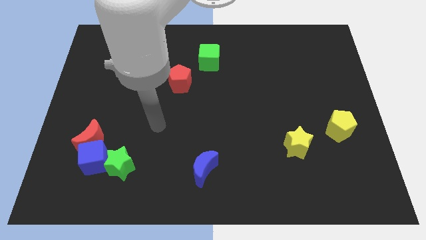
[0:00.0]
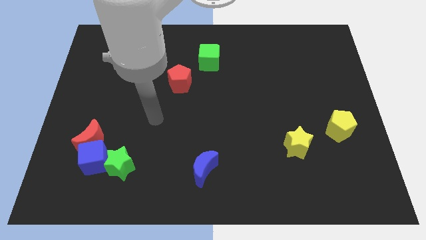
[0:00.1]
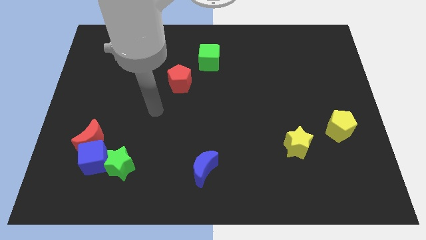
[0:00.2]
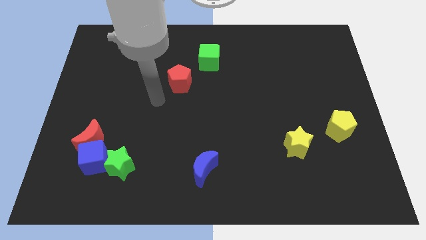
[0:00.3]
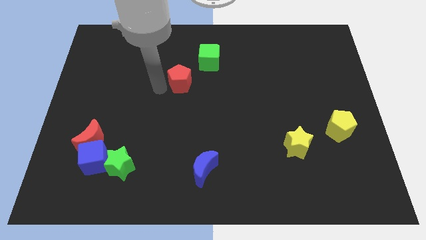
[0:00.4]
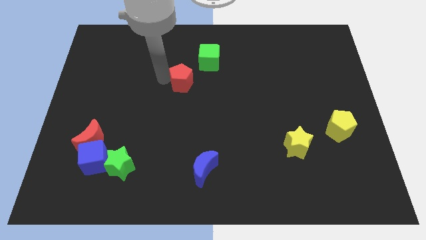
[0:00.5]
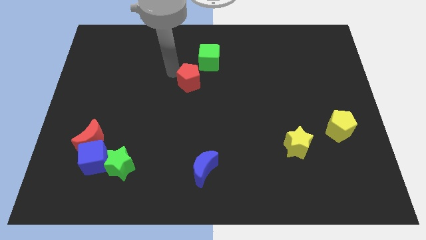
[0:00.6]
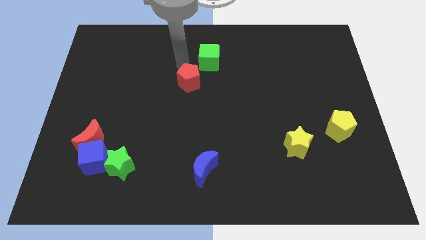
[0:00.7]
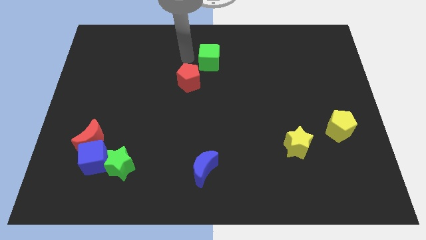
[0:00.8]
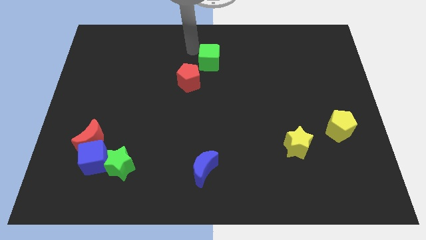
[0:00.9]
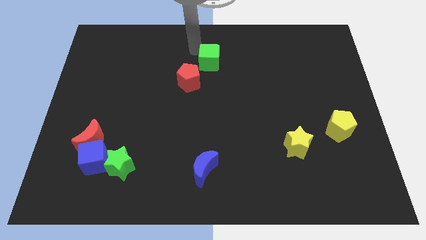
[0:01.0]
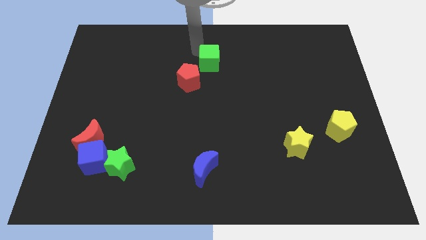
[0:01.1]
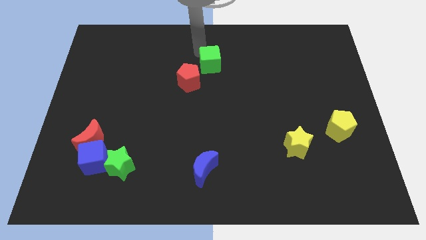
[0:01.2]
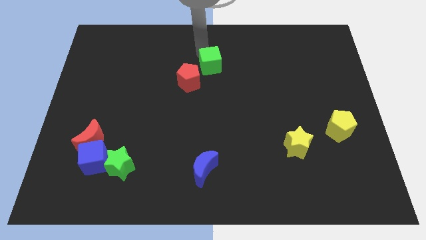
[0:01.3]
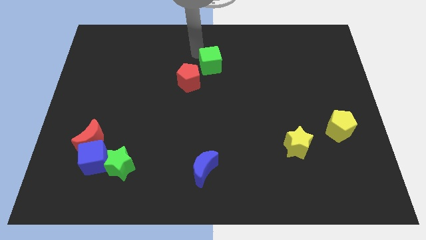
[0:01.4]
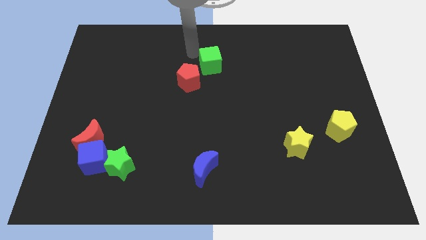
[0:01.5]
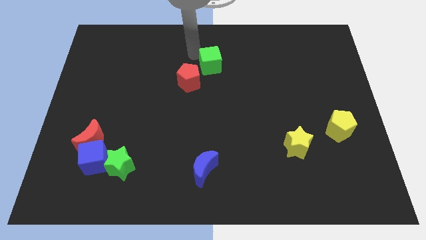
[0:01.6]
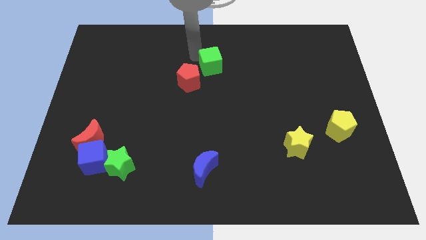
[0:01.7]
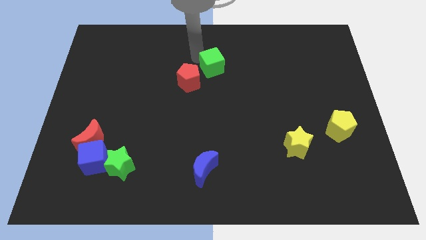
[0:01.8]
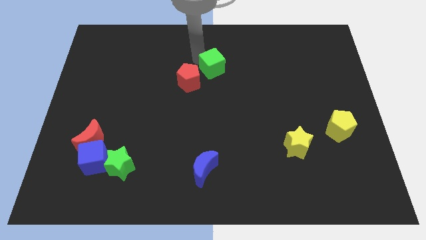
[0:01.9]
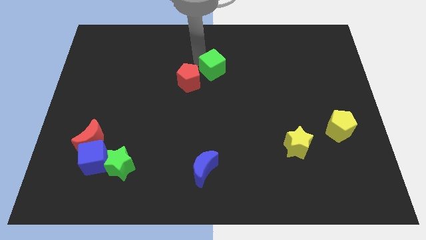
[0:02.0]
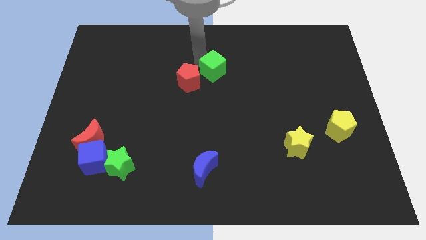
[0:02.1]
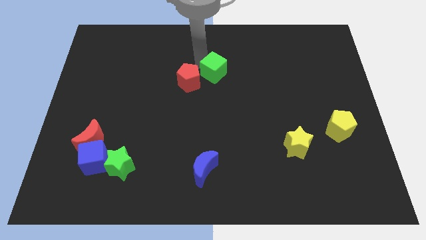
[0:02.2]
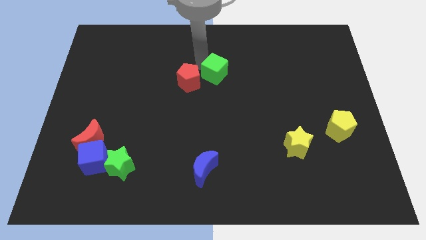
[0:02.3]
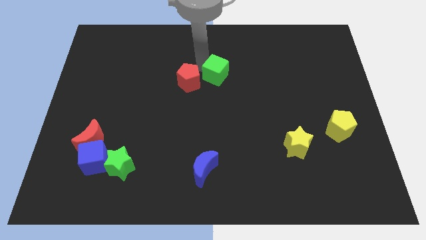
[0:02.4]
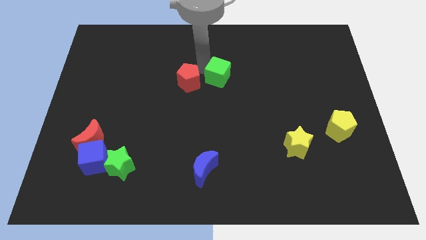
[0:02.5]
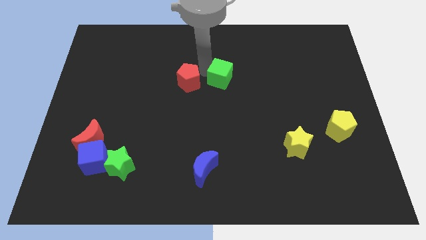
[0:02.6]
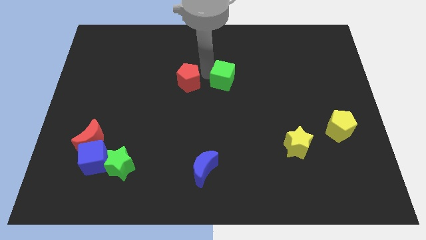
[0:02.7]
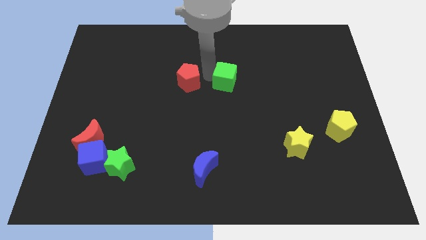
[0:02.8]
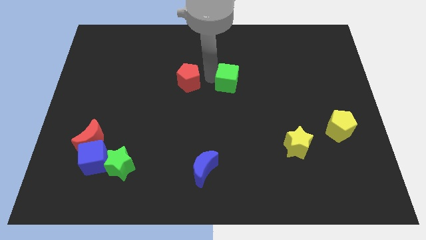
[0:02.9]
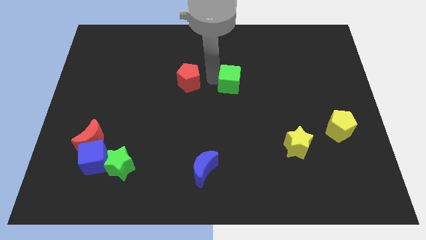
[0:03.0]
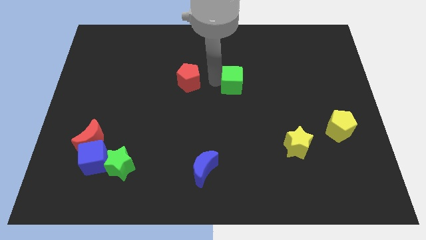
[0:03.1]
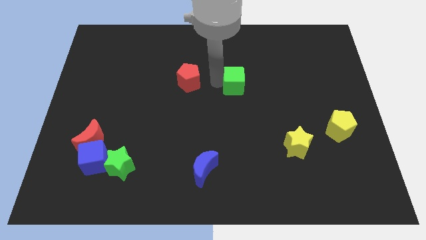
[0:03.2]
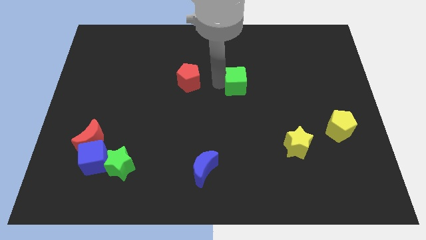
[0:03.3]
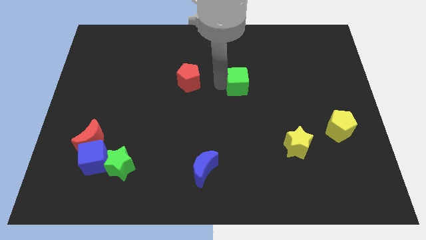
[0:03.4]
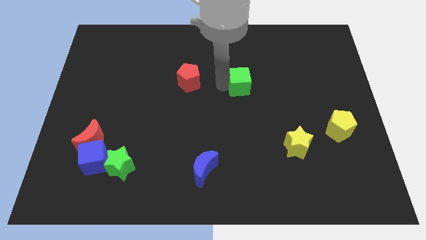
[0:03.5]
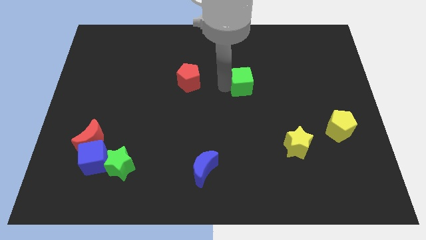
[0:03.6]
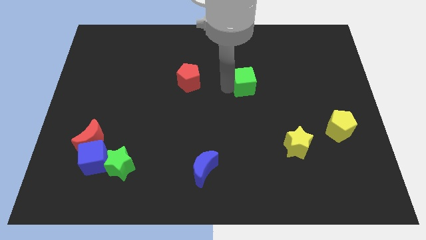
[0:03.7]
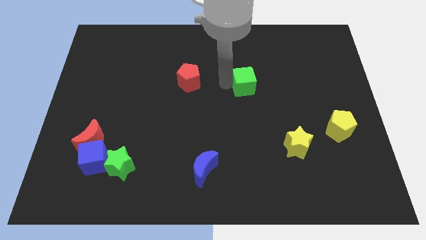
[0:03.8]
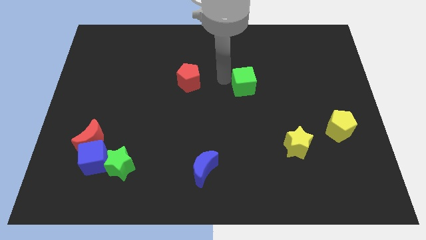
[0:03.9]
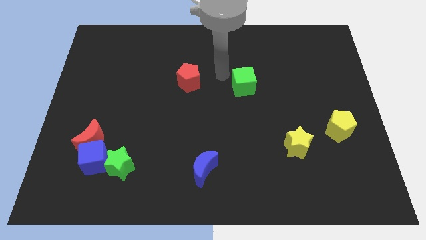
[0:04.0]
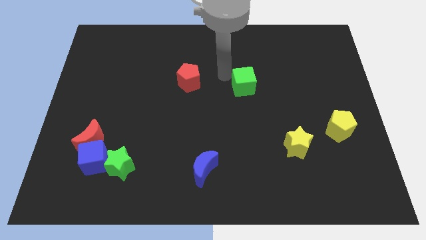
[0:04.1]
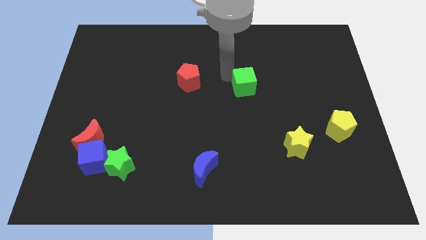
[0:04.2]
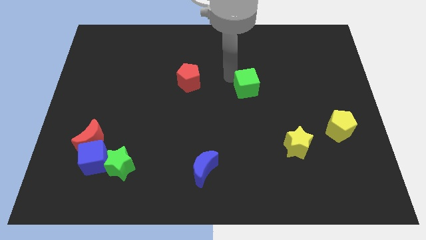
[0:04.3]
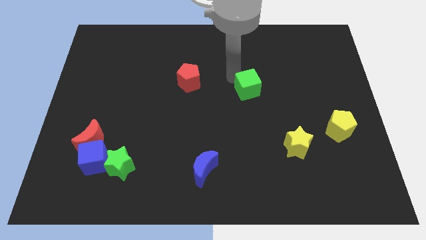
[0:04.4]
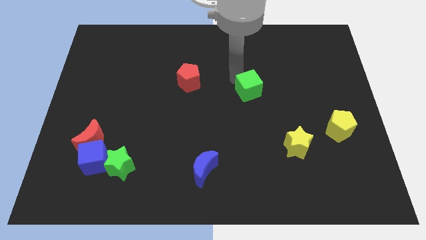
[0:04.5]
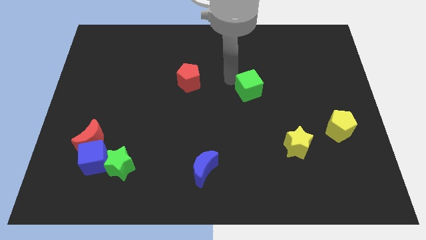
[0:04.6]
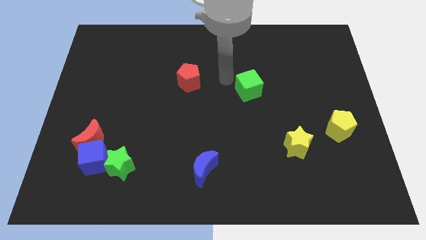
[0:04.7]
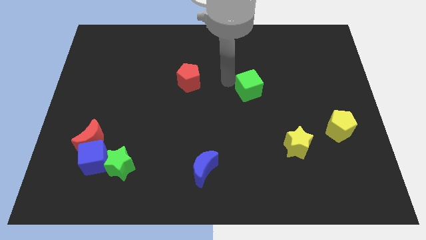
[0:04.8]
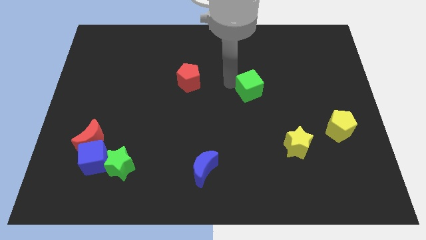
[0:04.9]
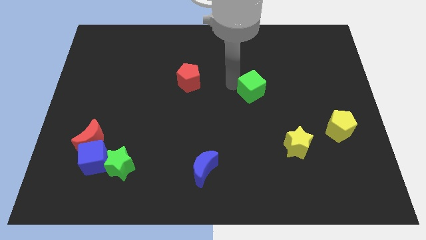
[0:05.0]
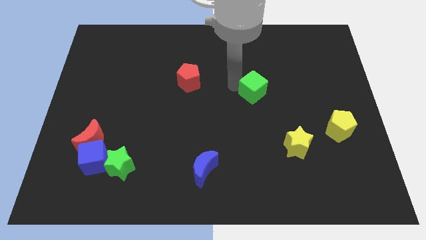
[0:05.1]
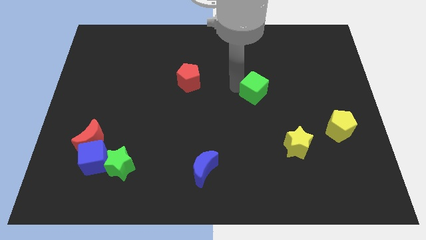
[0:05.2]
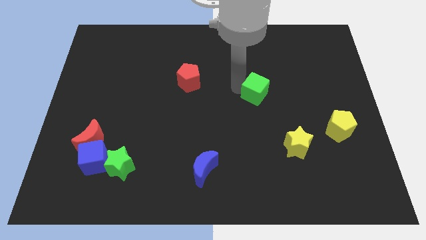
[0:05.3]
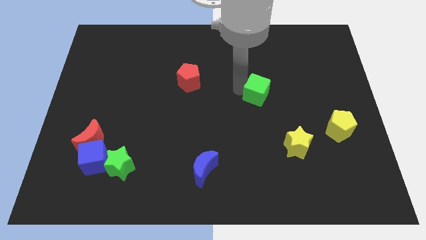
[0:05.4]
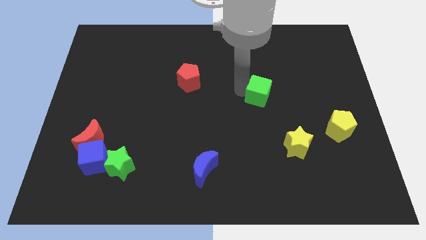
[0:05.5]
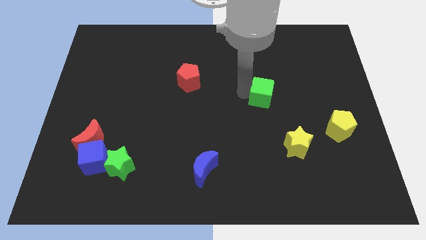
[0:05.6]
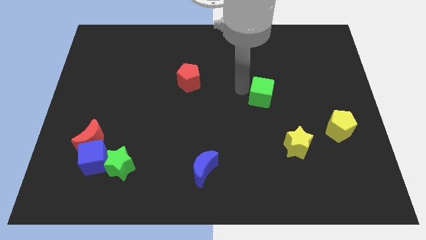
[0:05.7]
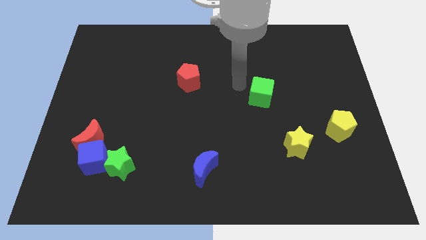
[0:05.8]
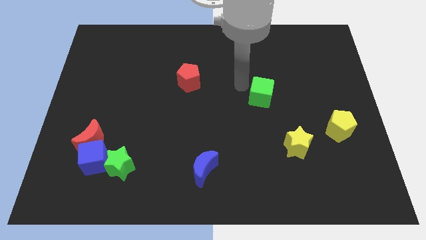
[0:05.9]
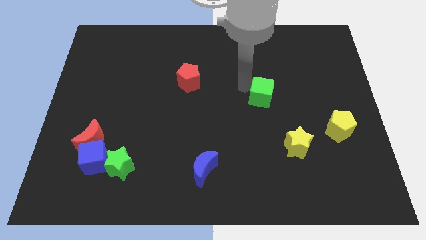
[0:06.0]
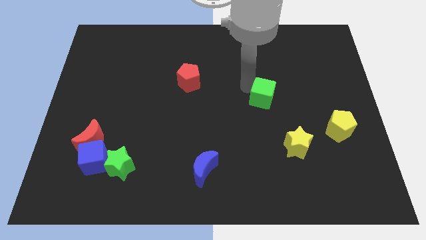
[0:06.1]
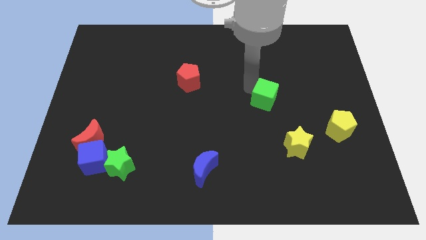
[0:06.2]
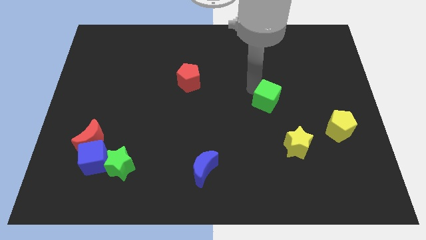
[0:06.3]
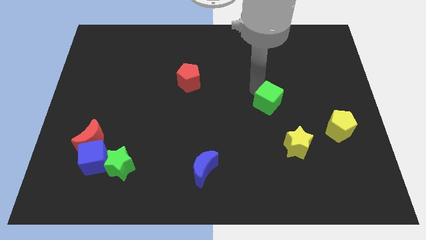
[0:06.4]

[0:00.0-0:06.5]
push the green cube downwards and to the right

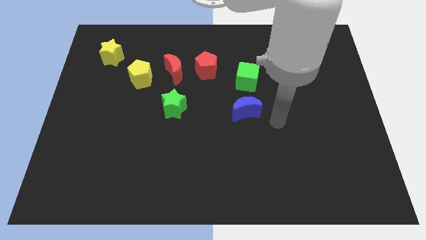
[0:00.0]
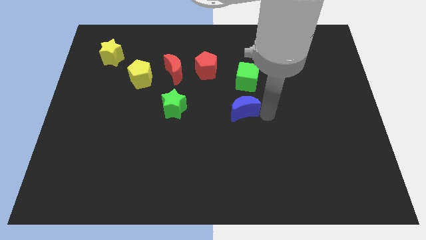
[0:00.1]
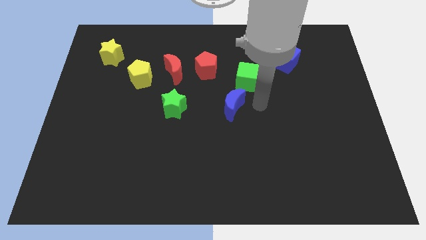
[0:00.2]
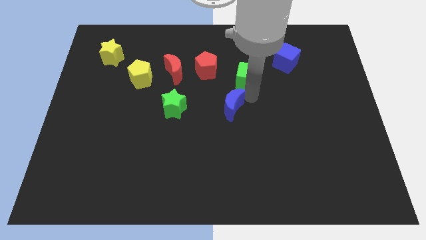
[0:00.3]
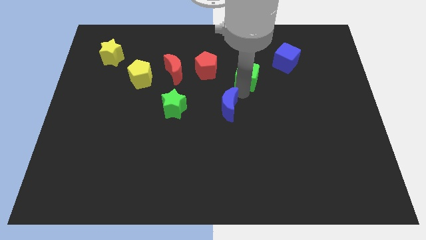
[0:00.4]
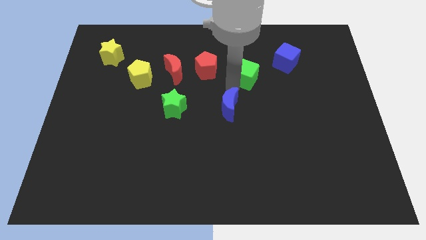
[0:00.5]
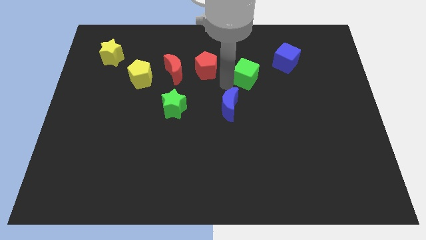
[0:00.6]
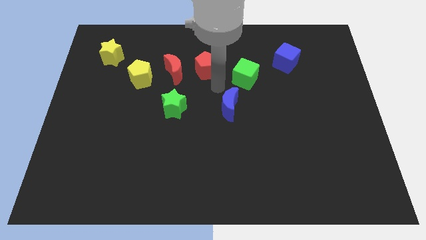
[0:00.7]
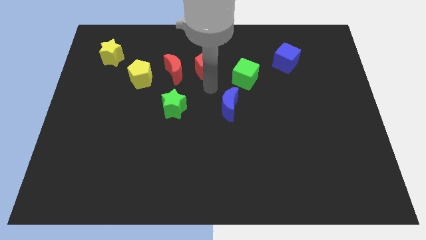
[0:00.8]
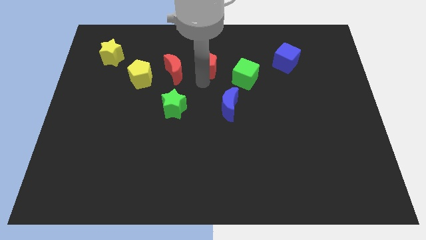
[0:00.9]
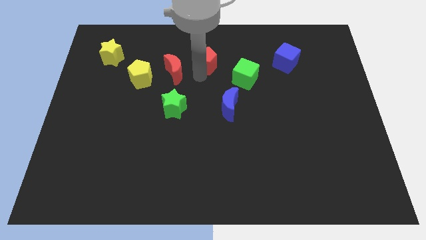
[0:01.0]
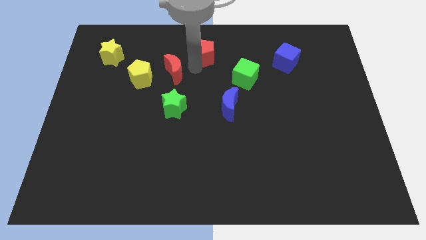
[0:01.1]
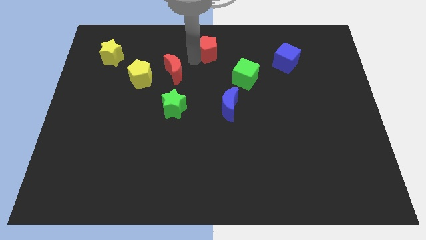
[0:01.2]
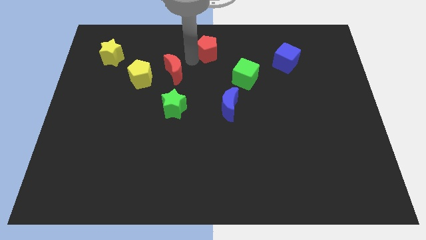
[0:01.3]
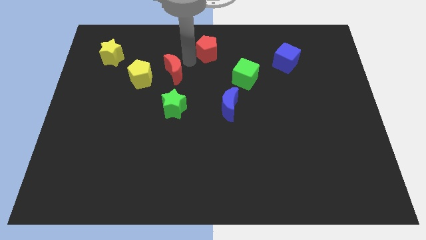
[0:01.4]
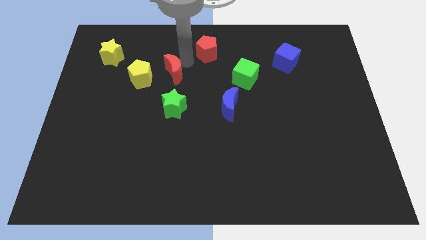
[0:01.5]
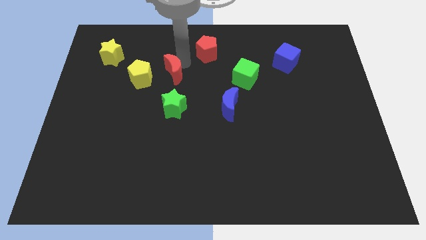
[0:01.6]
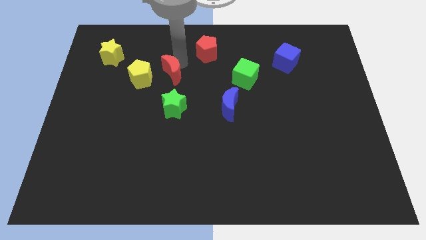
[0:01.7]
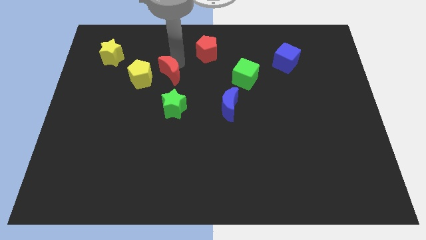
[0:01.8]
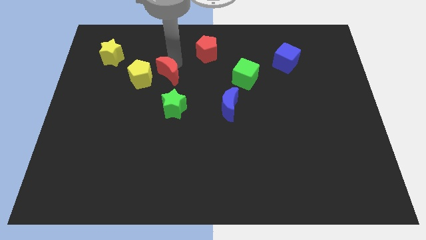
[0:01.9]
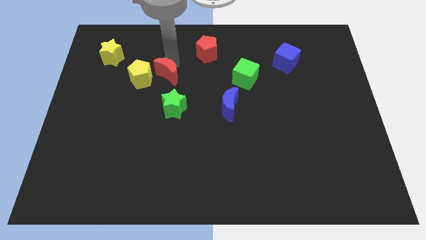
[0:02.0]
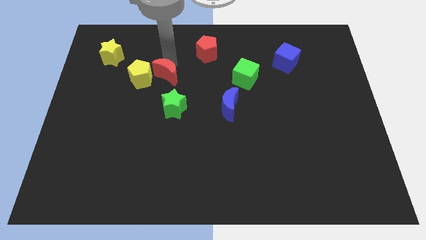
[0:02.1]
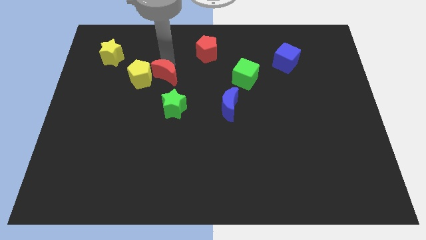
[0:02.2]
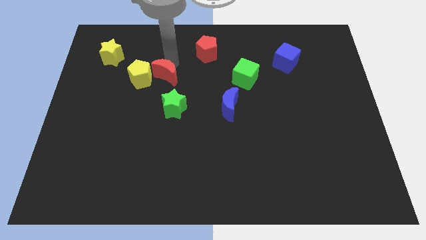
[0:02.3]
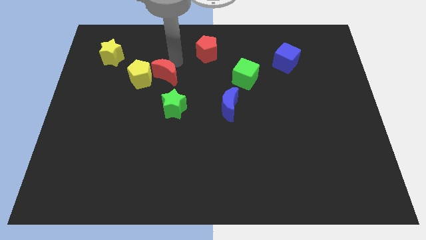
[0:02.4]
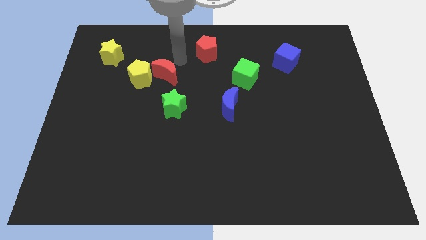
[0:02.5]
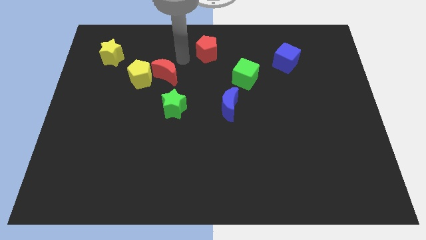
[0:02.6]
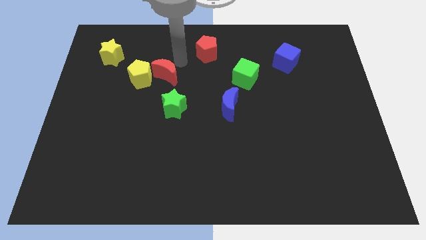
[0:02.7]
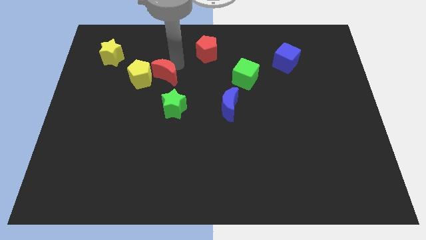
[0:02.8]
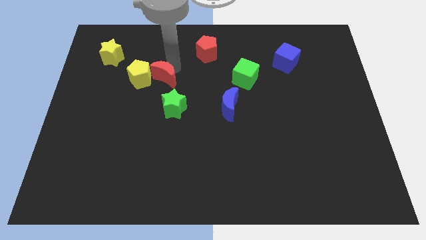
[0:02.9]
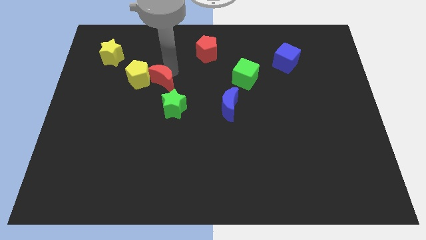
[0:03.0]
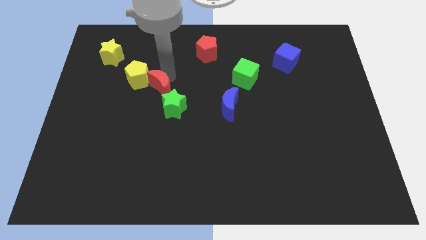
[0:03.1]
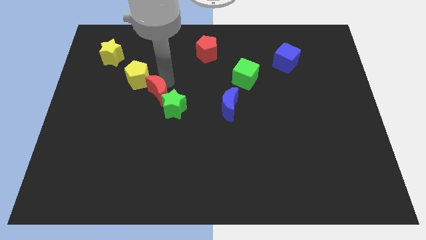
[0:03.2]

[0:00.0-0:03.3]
move the red moon downwards and to the left somewhat
